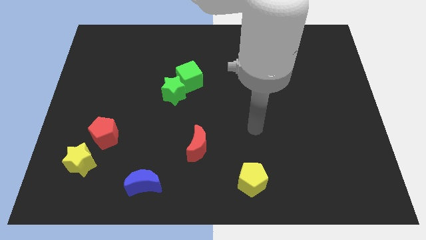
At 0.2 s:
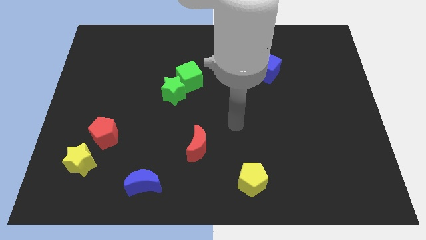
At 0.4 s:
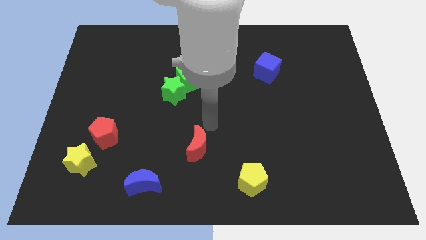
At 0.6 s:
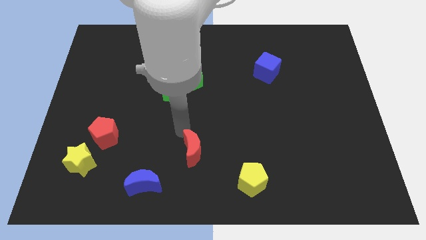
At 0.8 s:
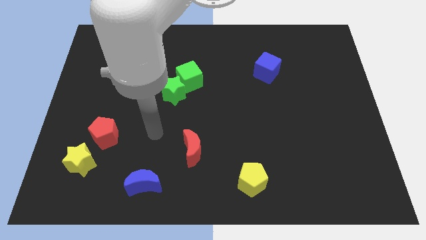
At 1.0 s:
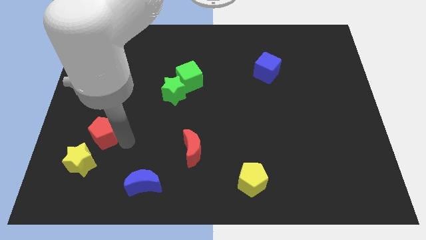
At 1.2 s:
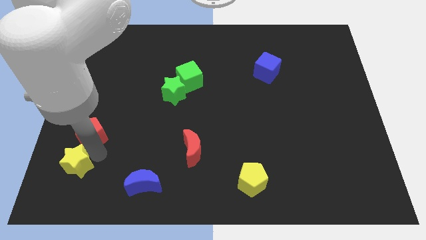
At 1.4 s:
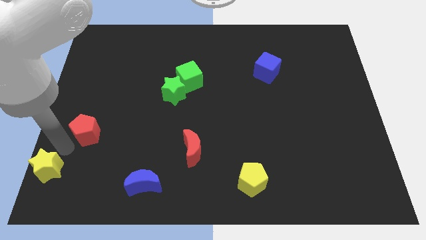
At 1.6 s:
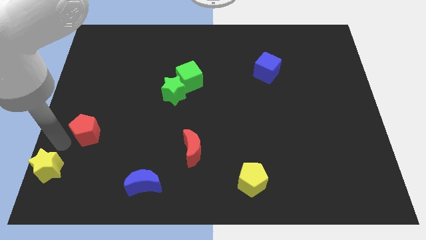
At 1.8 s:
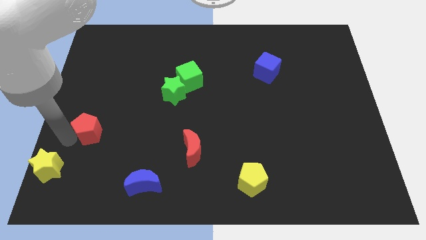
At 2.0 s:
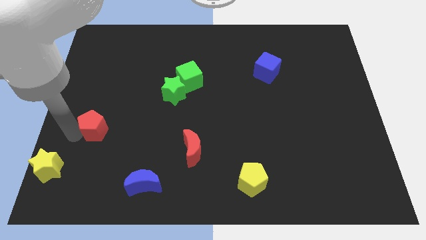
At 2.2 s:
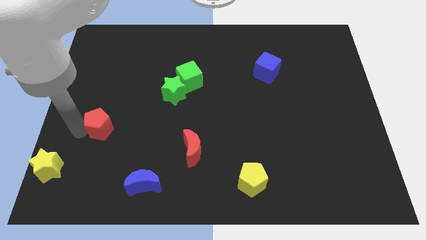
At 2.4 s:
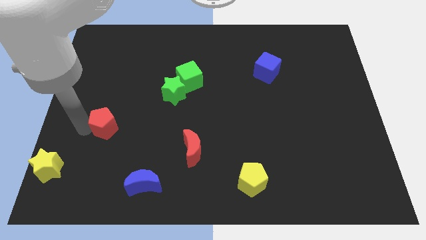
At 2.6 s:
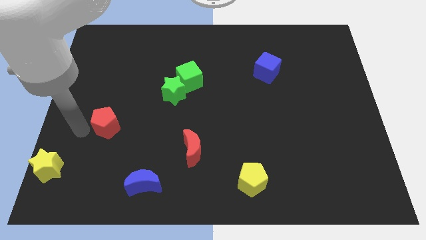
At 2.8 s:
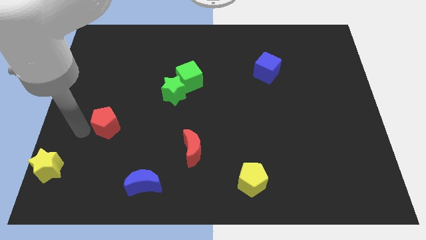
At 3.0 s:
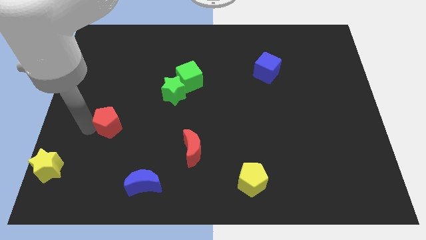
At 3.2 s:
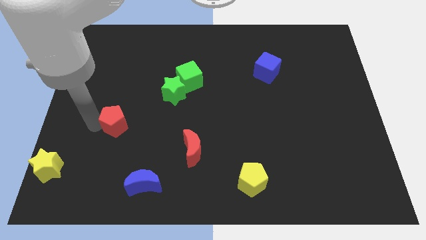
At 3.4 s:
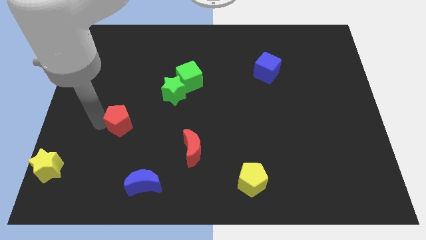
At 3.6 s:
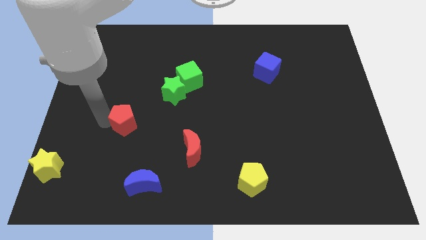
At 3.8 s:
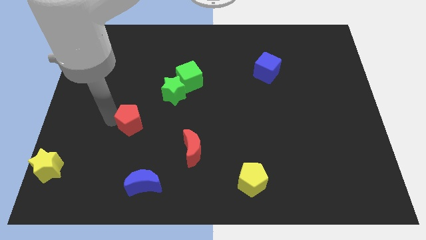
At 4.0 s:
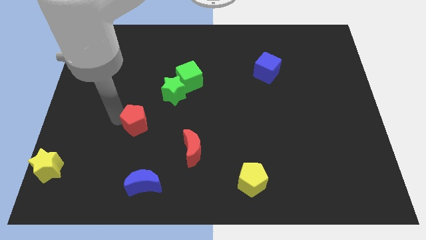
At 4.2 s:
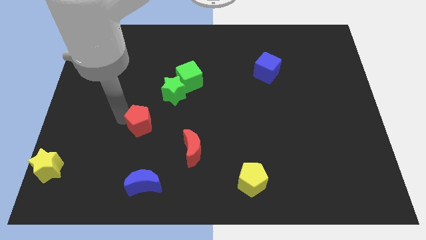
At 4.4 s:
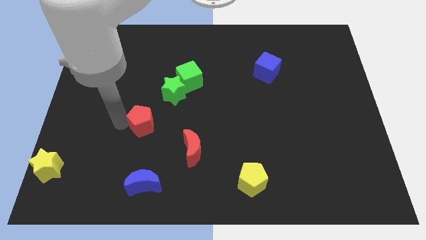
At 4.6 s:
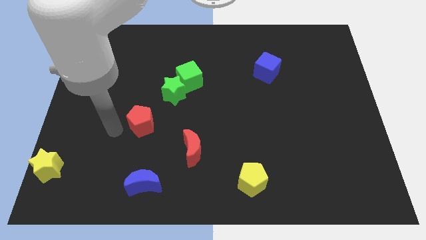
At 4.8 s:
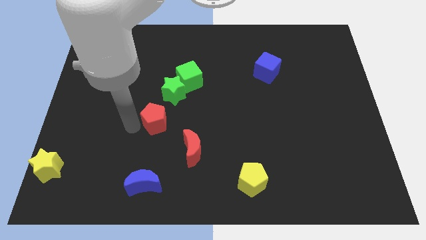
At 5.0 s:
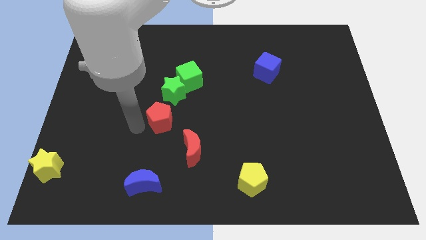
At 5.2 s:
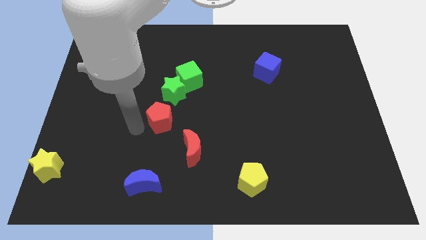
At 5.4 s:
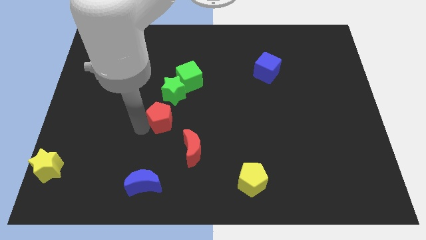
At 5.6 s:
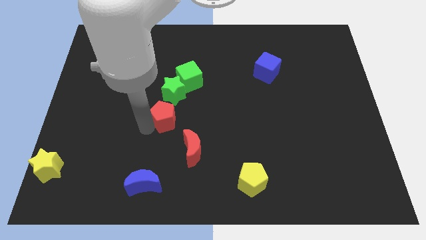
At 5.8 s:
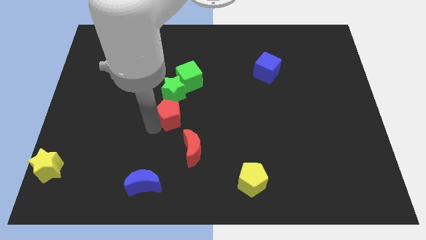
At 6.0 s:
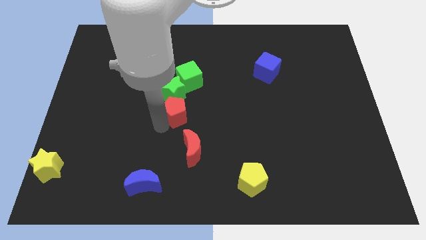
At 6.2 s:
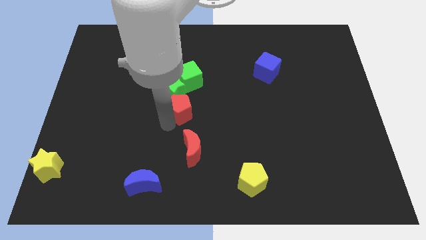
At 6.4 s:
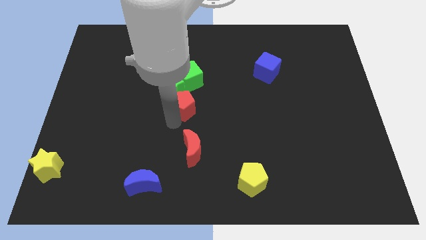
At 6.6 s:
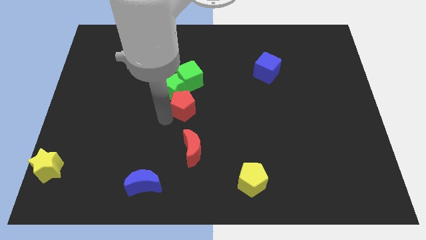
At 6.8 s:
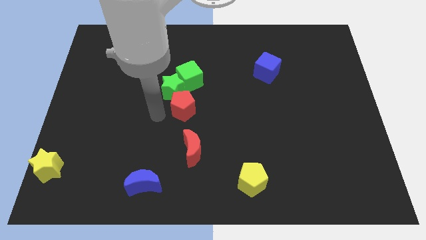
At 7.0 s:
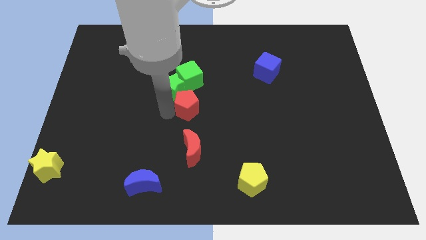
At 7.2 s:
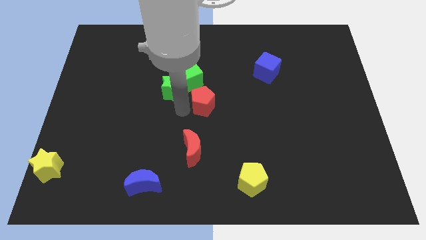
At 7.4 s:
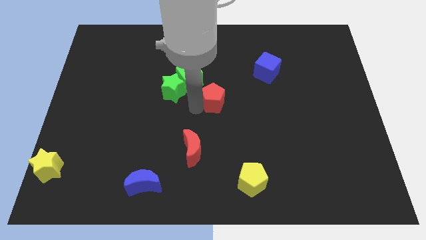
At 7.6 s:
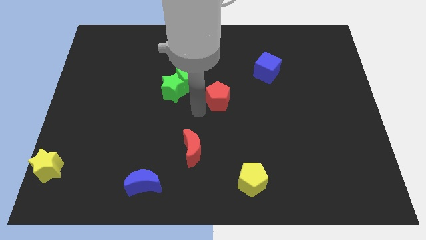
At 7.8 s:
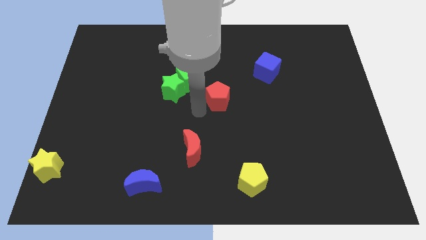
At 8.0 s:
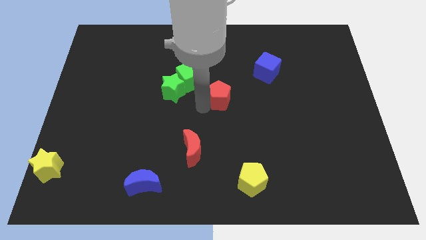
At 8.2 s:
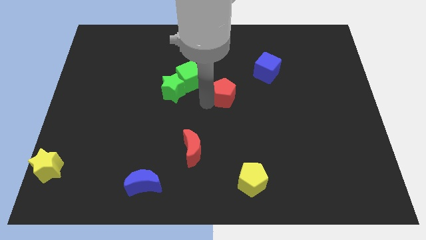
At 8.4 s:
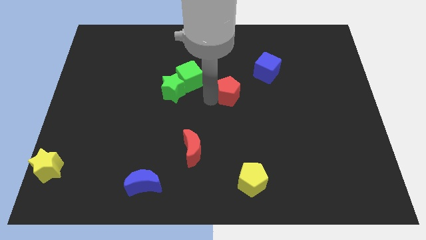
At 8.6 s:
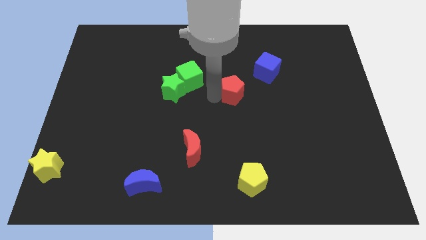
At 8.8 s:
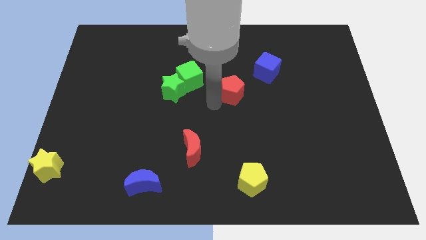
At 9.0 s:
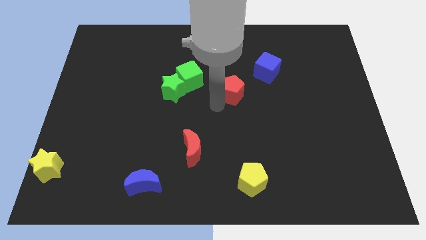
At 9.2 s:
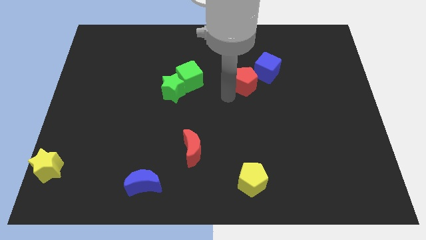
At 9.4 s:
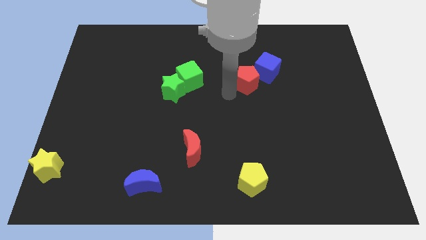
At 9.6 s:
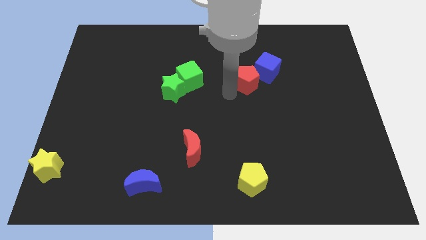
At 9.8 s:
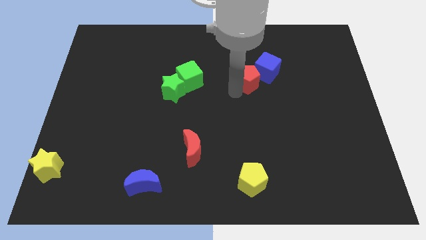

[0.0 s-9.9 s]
put the red pentagon towards the blue cube

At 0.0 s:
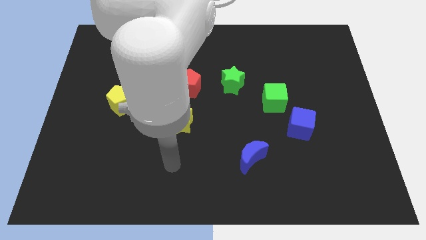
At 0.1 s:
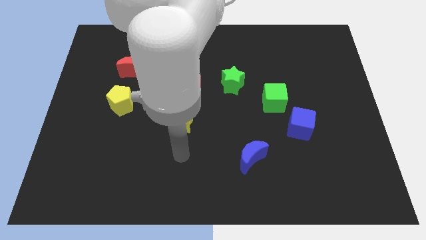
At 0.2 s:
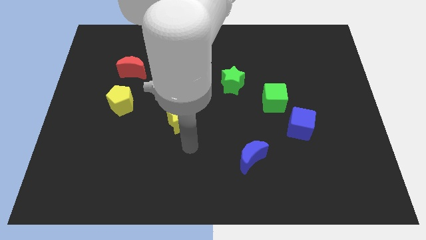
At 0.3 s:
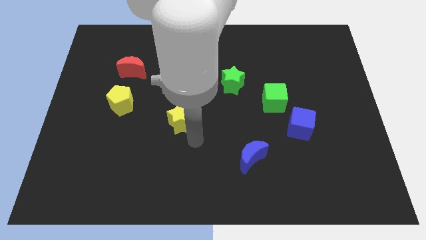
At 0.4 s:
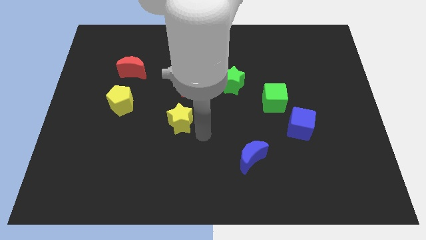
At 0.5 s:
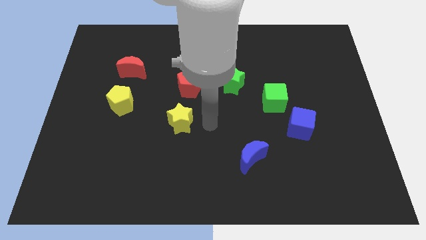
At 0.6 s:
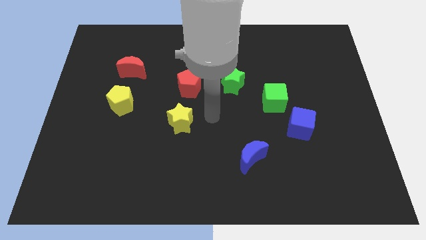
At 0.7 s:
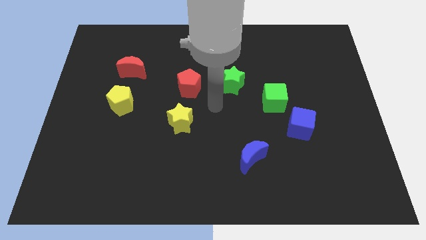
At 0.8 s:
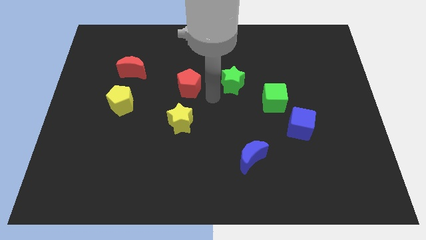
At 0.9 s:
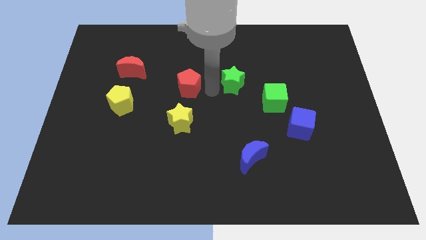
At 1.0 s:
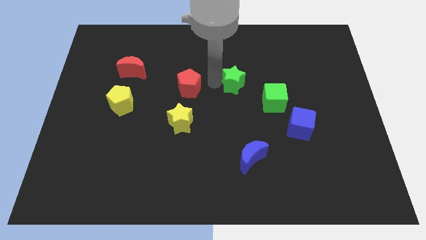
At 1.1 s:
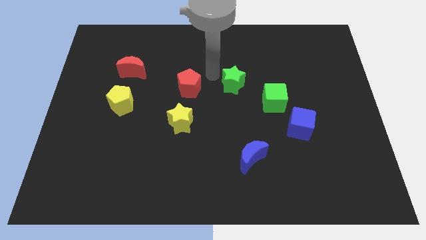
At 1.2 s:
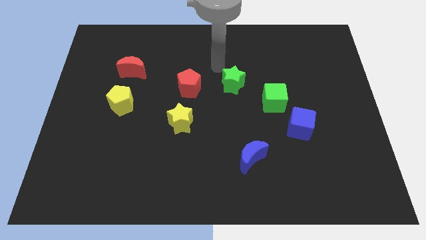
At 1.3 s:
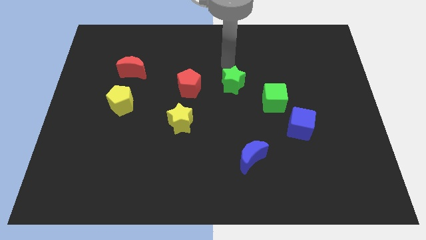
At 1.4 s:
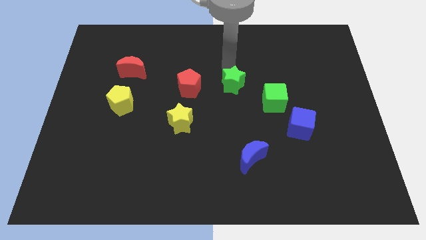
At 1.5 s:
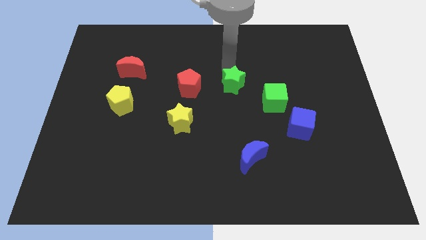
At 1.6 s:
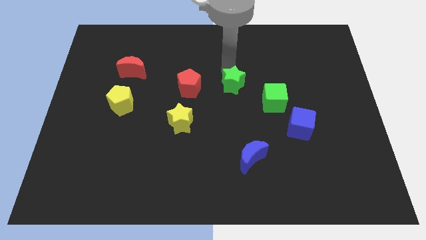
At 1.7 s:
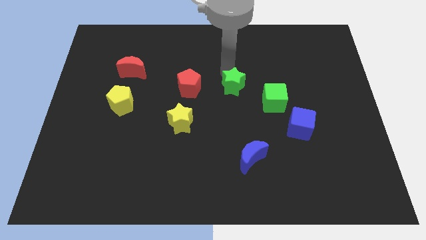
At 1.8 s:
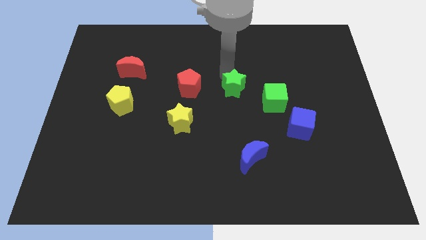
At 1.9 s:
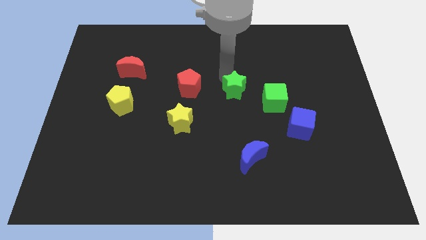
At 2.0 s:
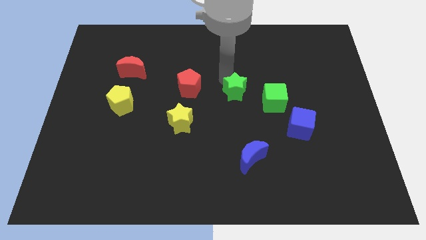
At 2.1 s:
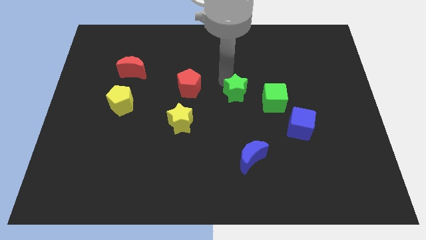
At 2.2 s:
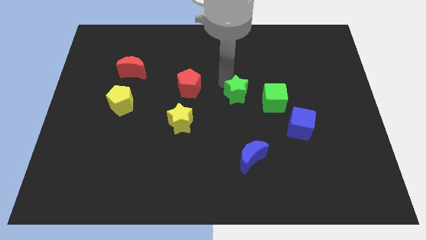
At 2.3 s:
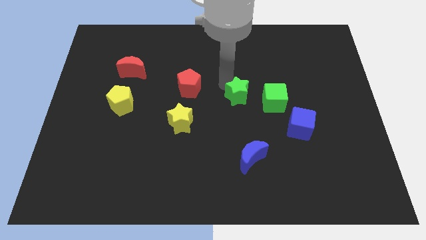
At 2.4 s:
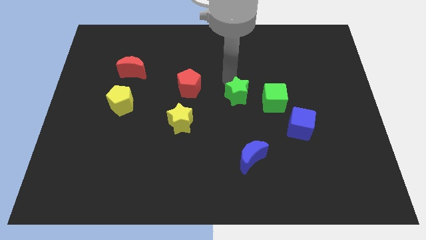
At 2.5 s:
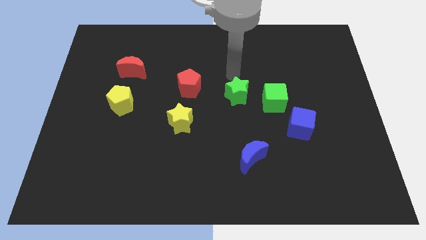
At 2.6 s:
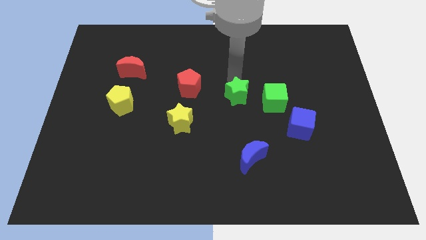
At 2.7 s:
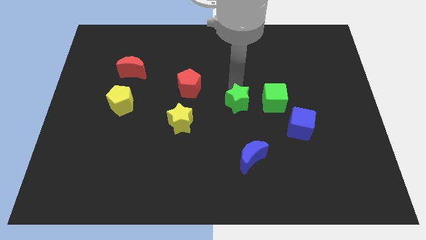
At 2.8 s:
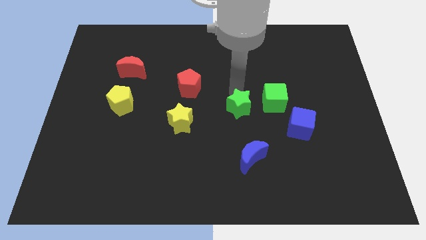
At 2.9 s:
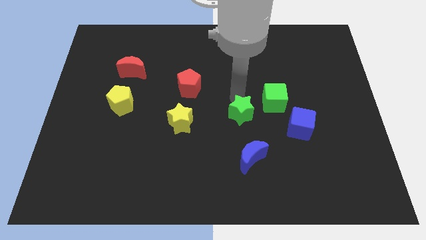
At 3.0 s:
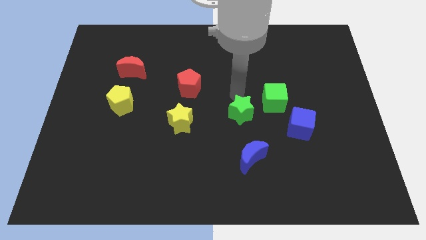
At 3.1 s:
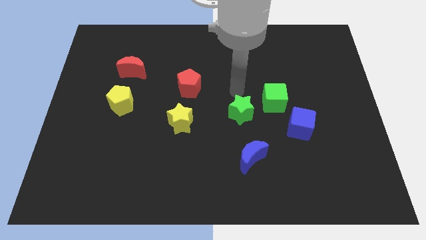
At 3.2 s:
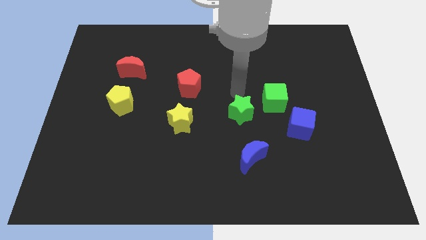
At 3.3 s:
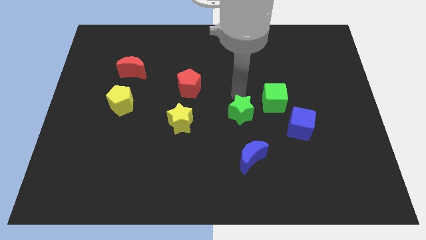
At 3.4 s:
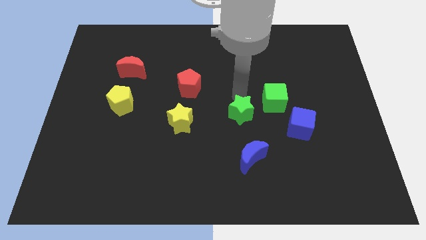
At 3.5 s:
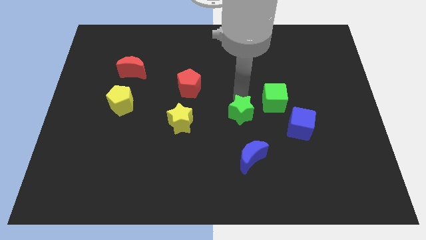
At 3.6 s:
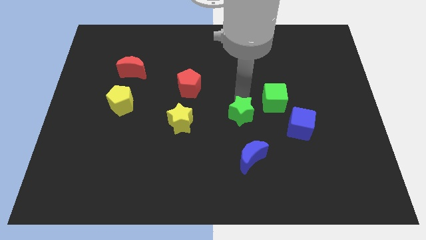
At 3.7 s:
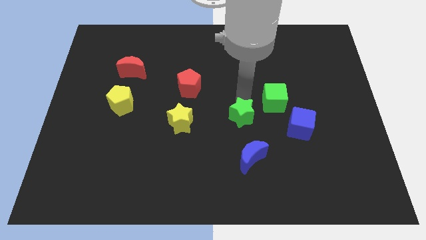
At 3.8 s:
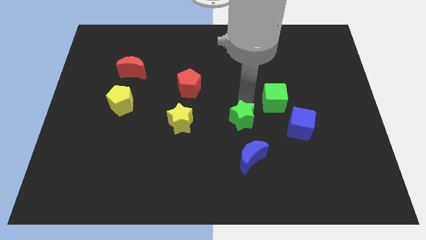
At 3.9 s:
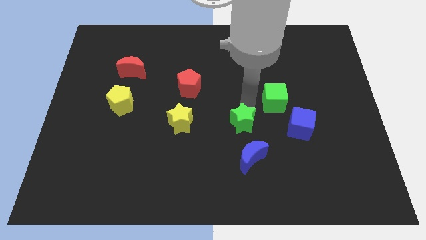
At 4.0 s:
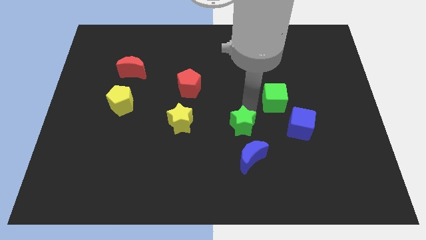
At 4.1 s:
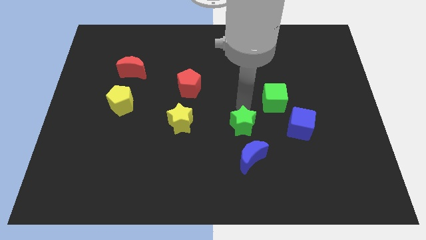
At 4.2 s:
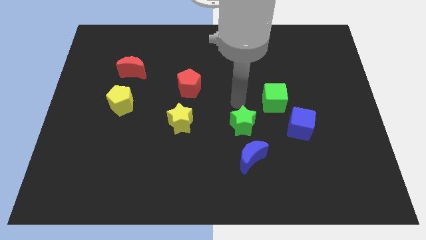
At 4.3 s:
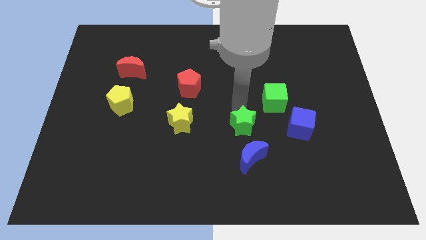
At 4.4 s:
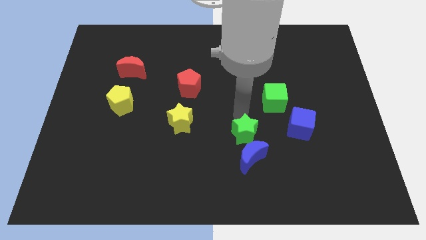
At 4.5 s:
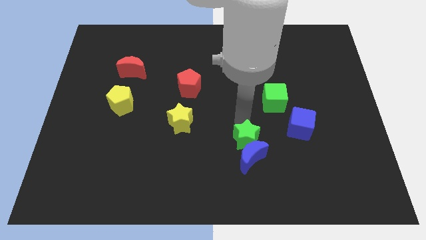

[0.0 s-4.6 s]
slide the green star towards the blue moon
